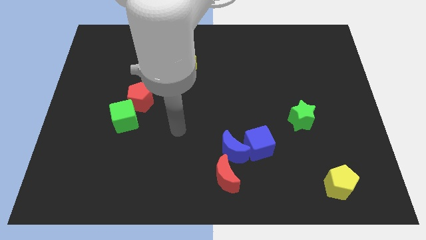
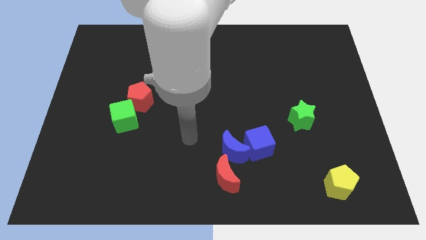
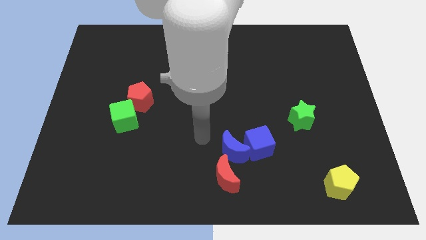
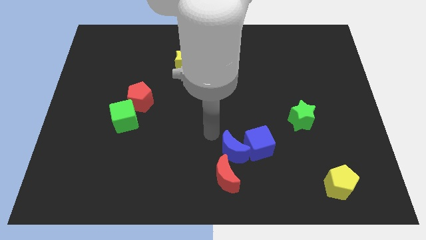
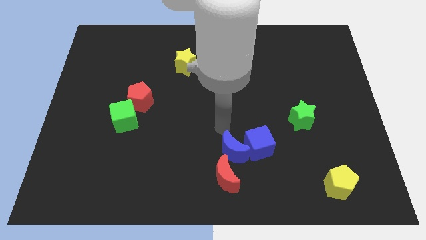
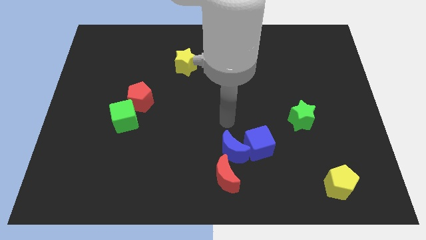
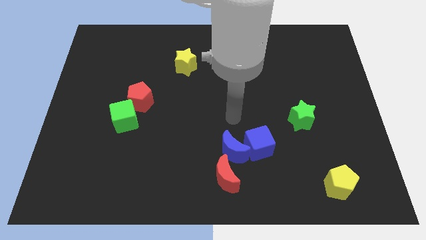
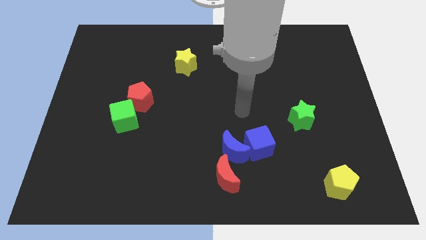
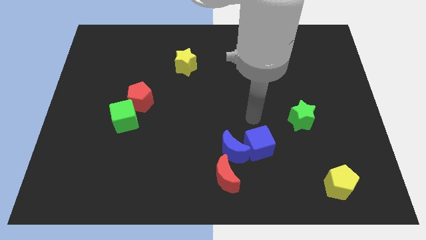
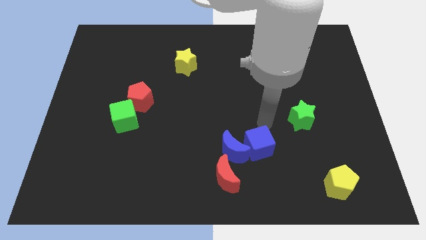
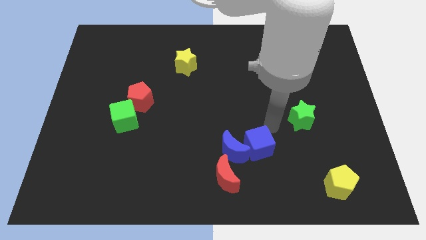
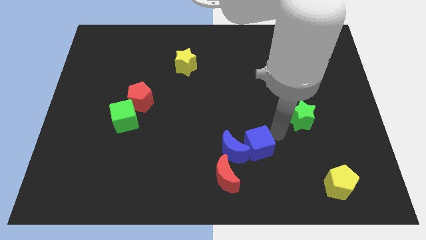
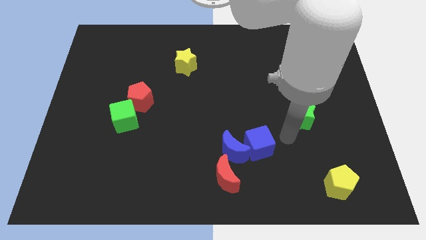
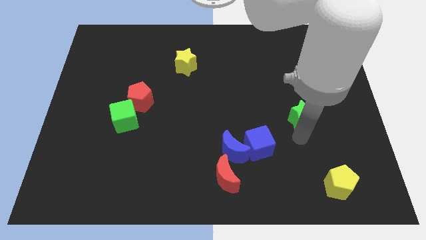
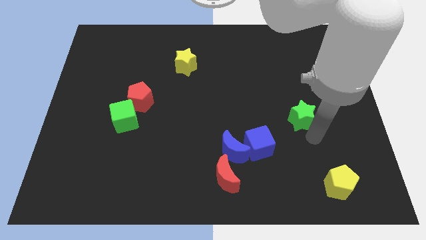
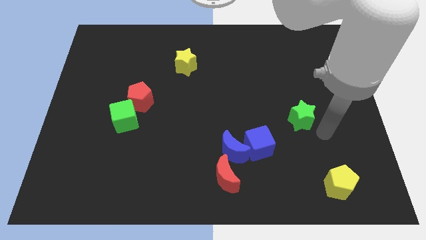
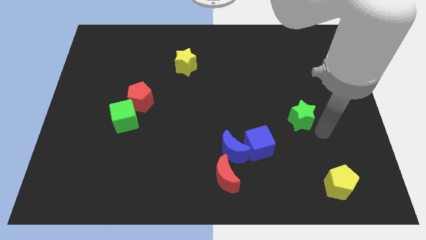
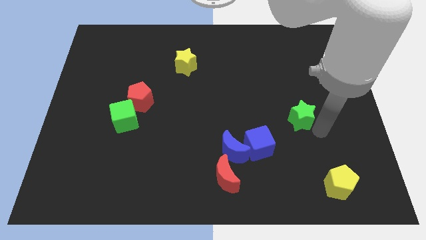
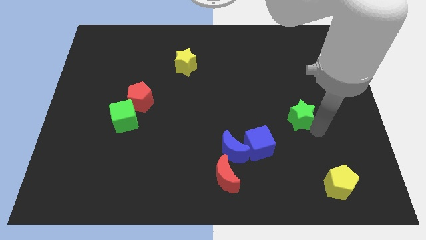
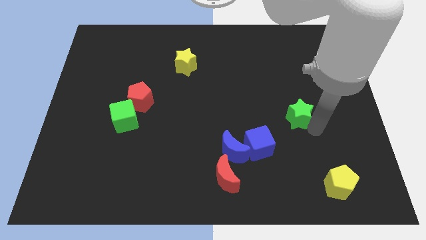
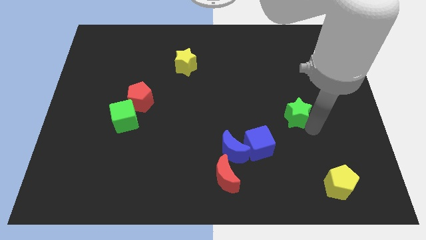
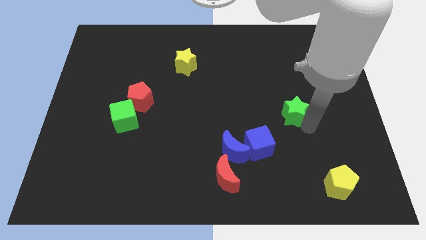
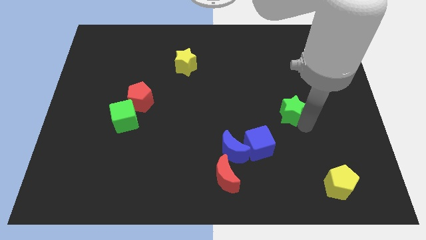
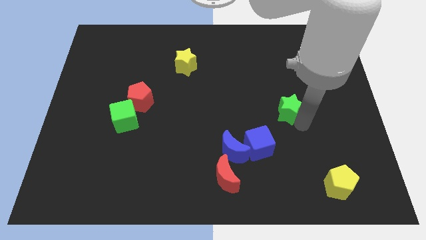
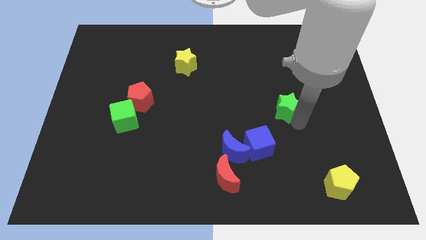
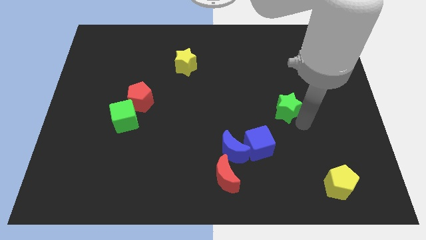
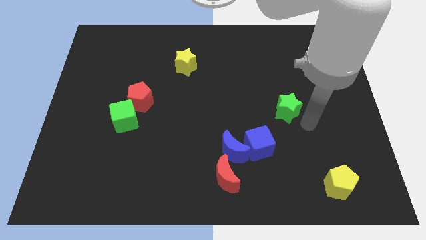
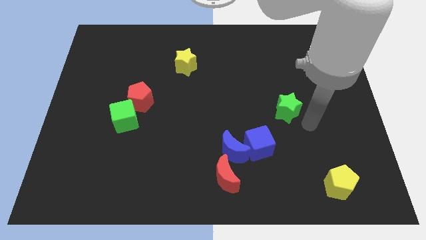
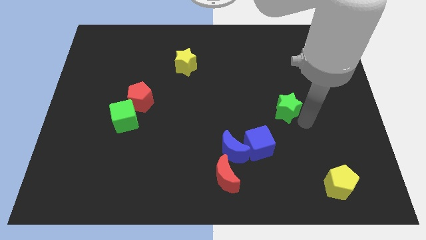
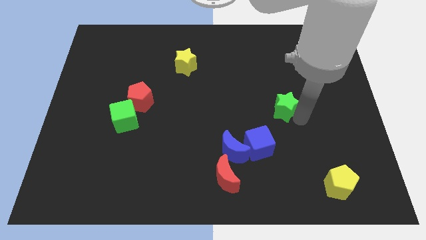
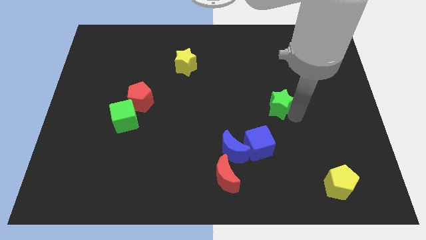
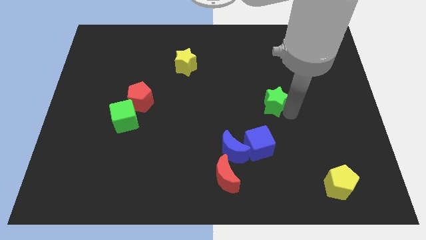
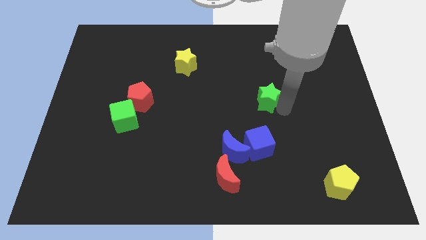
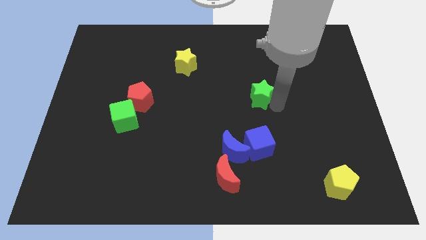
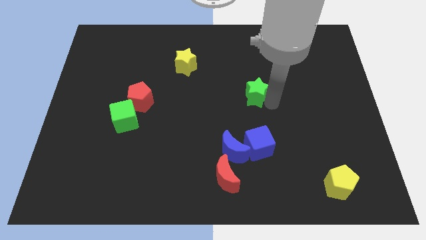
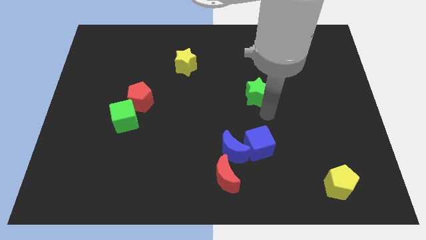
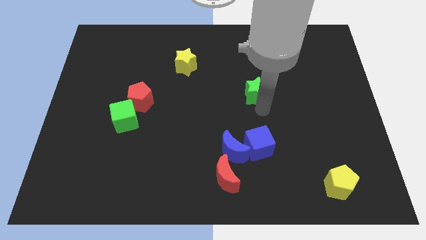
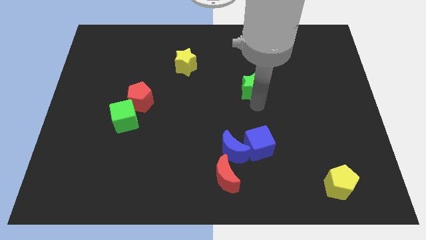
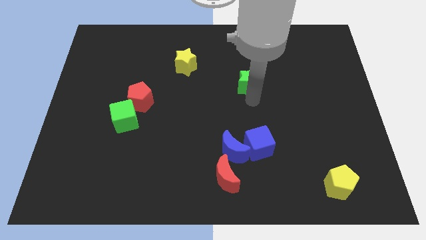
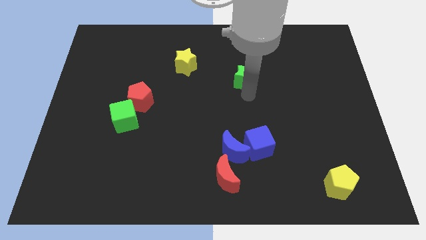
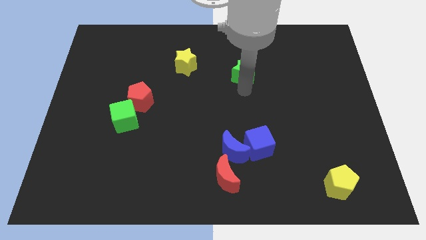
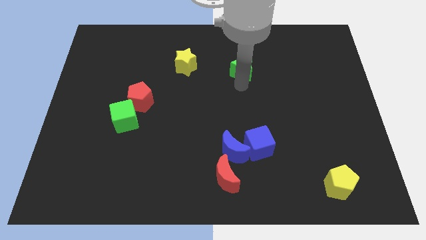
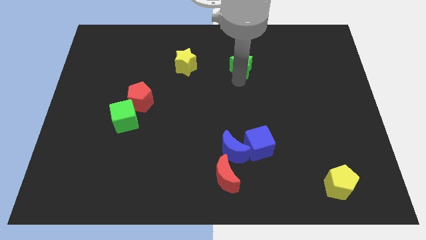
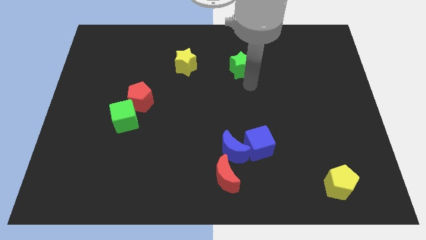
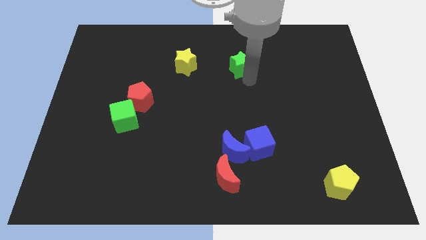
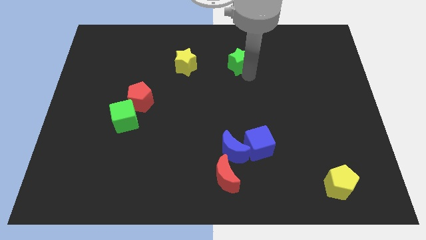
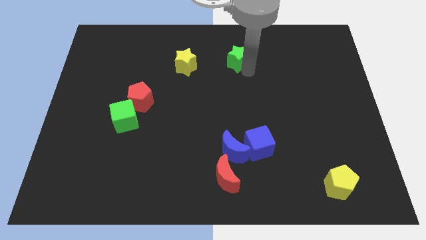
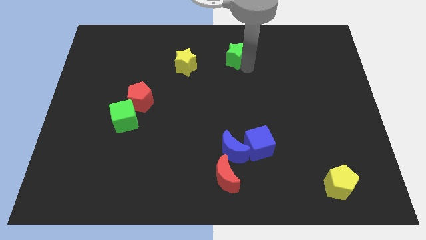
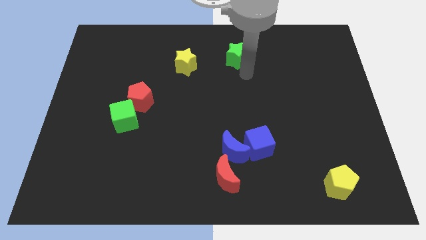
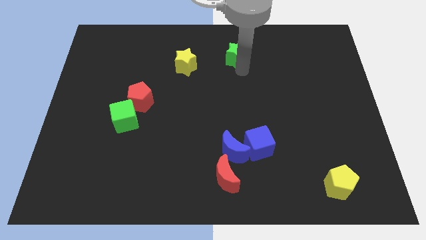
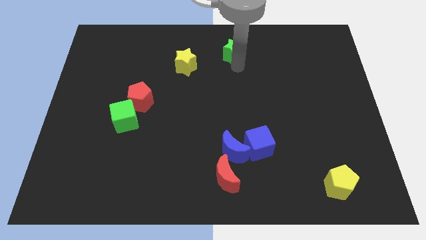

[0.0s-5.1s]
slide the green star to the top side

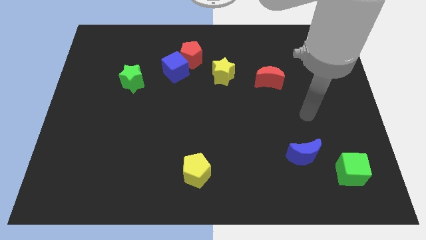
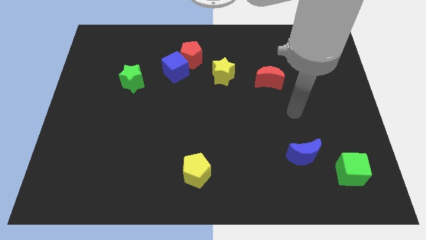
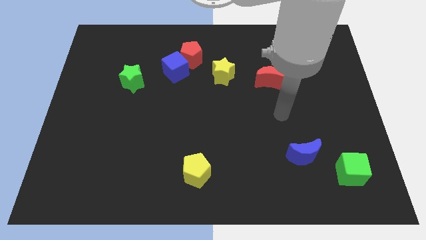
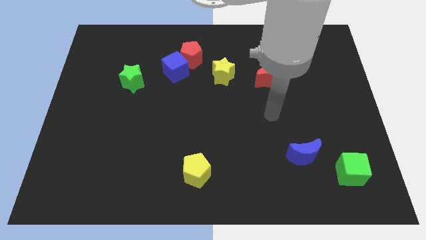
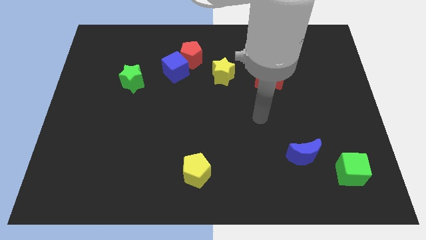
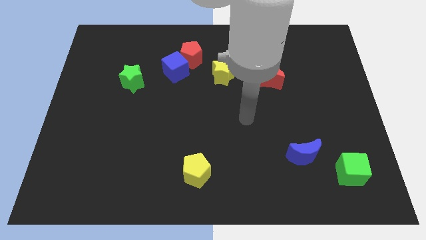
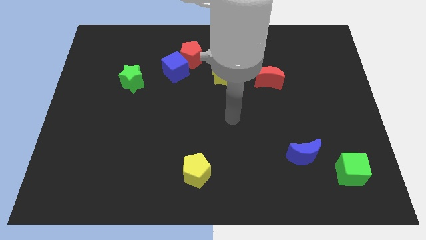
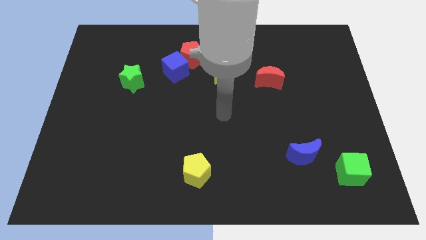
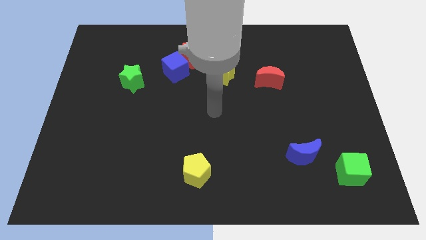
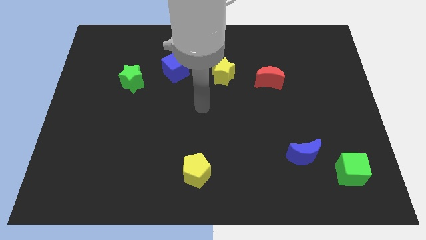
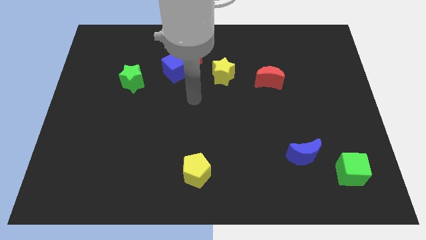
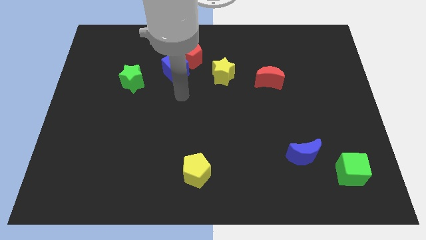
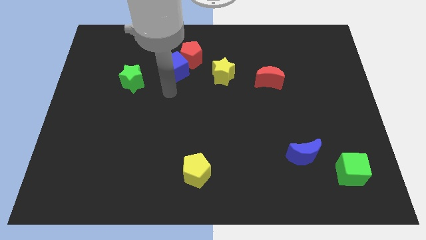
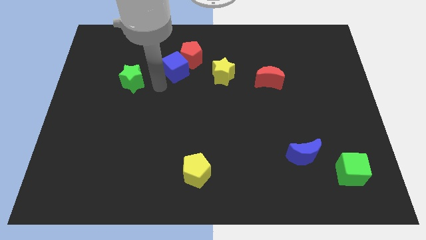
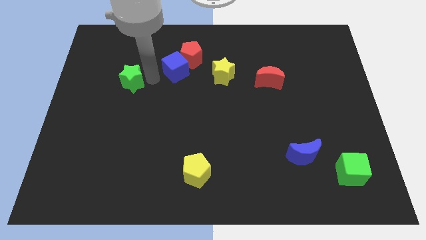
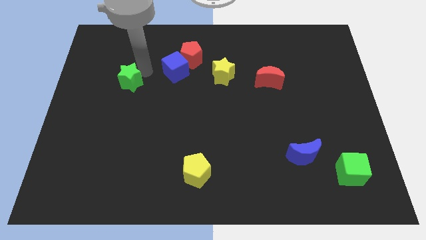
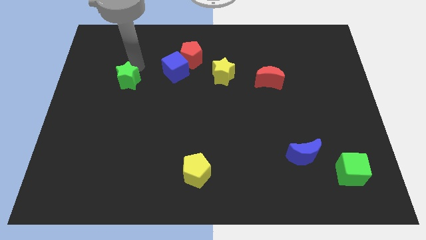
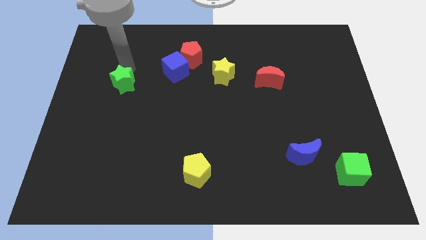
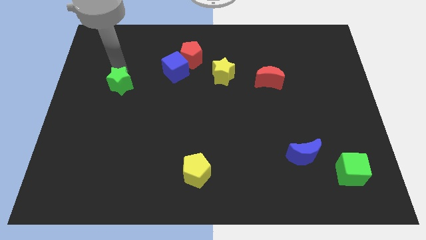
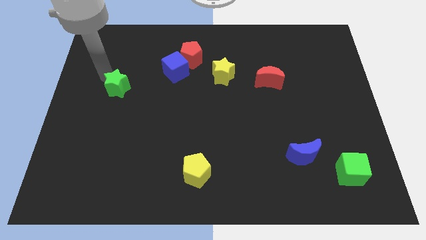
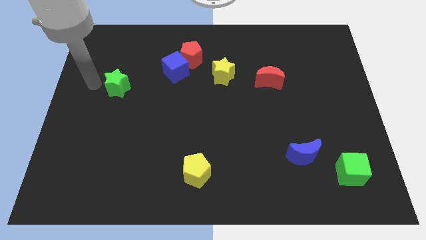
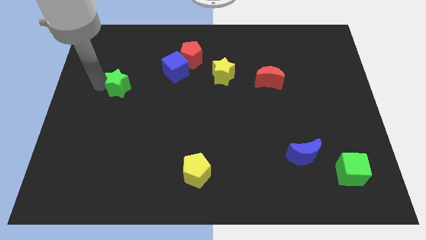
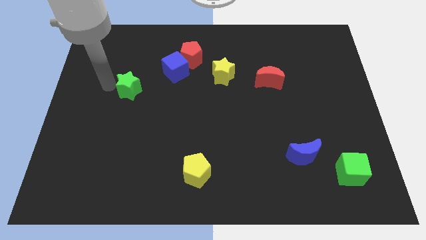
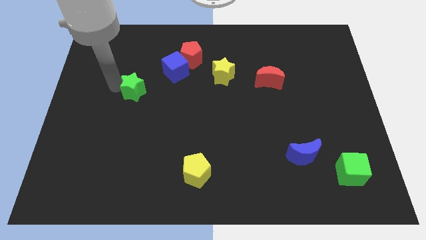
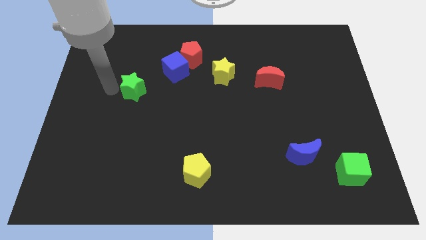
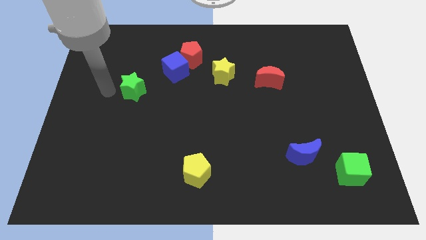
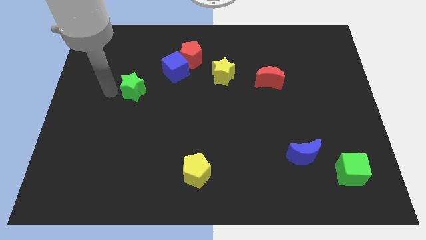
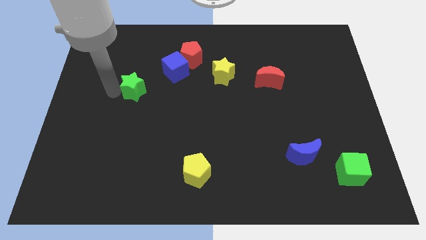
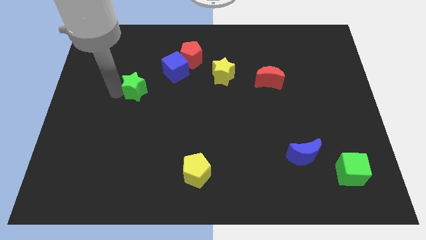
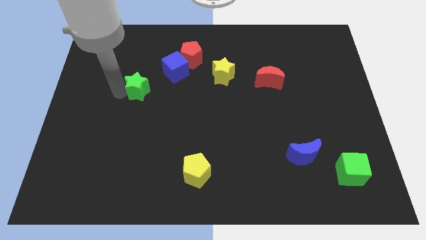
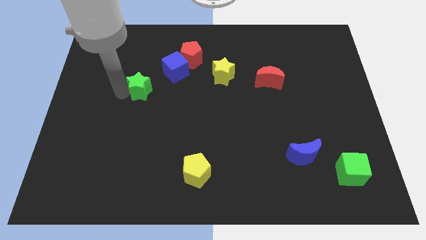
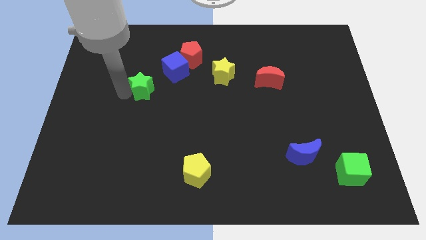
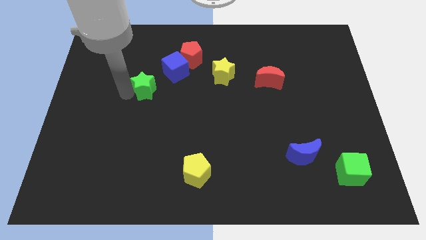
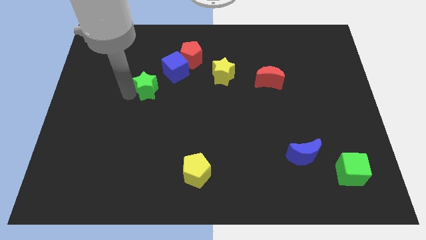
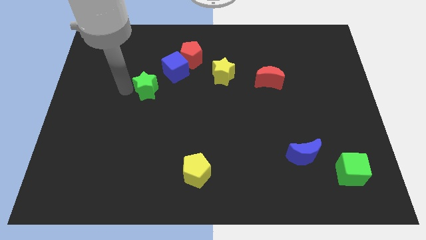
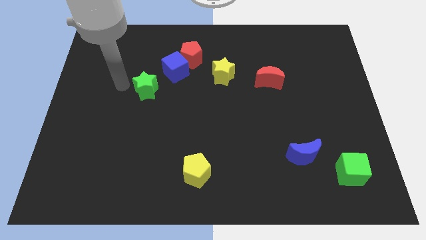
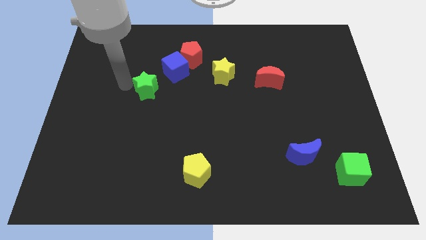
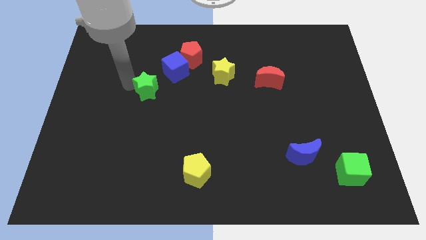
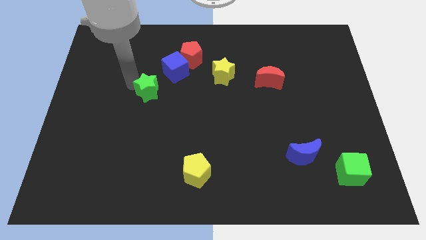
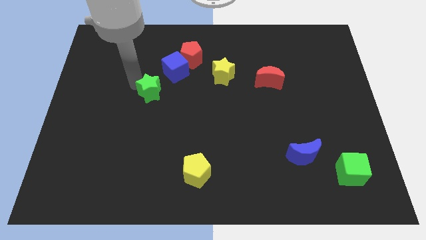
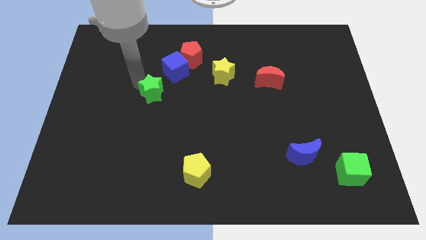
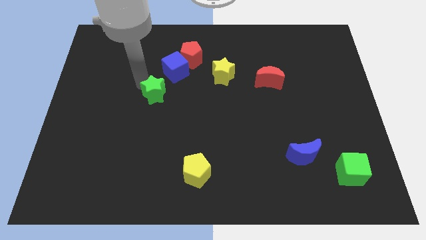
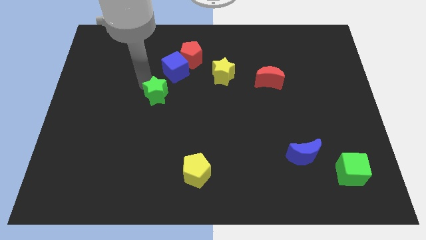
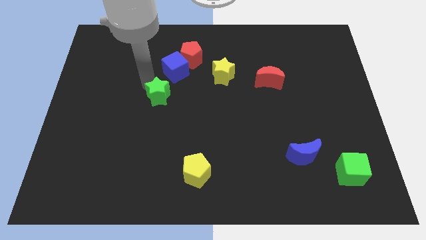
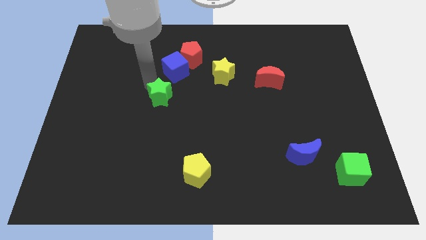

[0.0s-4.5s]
move the green star to the center
